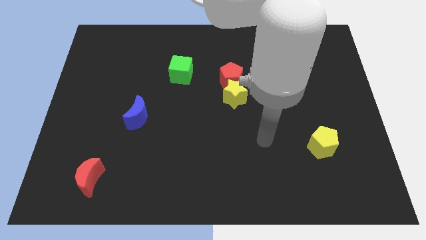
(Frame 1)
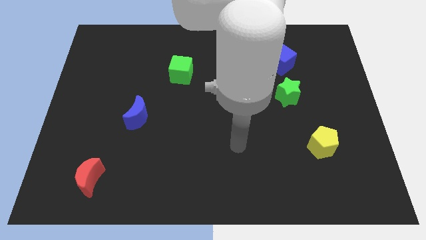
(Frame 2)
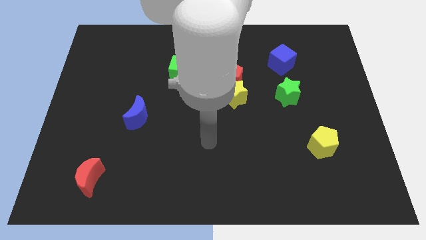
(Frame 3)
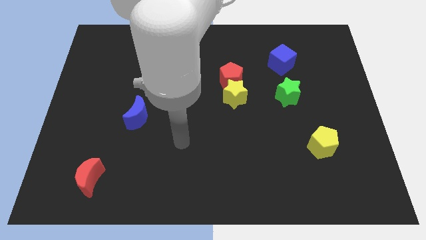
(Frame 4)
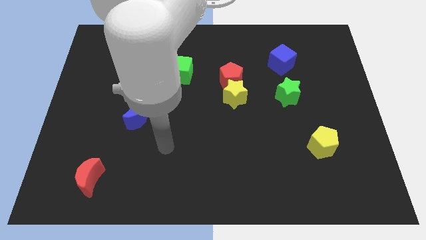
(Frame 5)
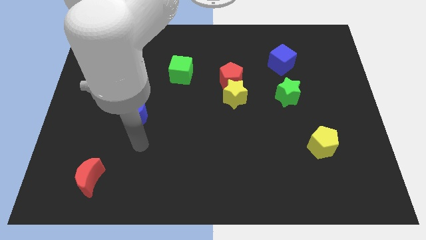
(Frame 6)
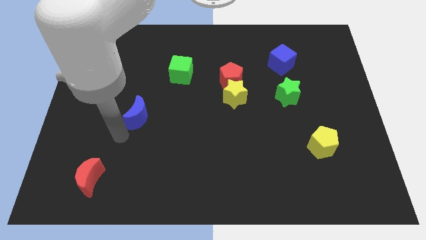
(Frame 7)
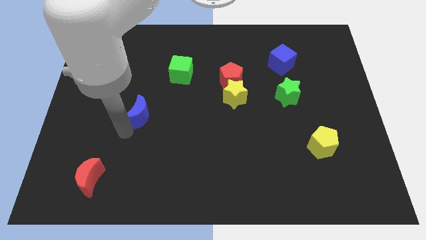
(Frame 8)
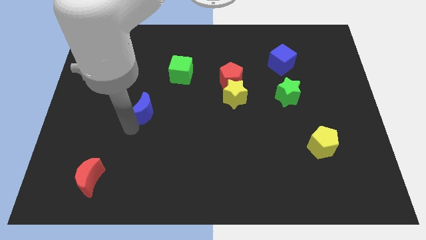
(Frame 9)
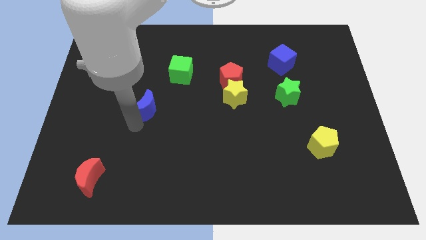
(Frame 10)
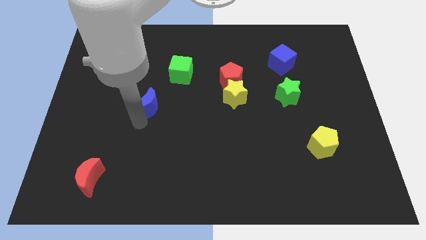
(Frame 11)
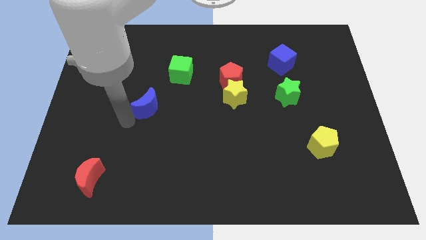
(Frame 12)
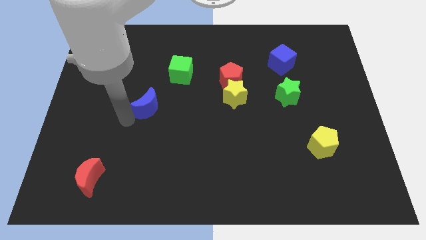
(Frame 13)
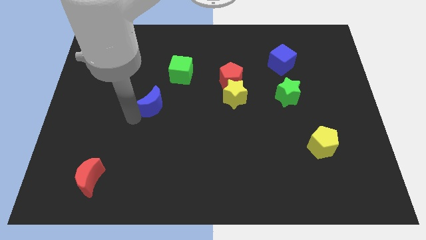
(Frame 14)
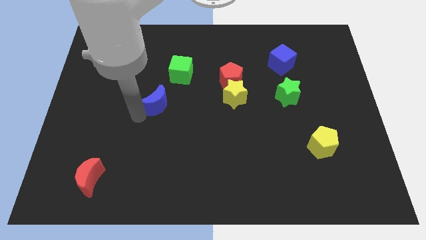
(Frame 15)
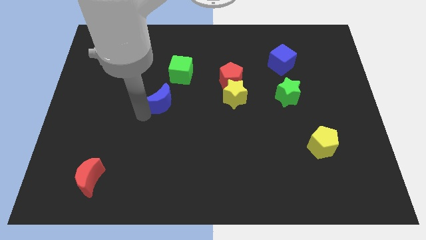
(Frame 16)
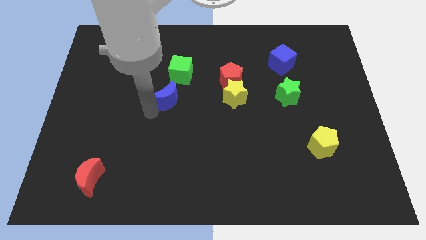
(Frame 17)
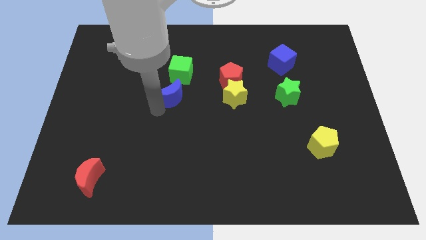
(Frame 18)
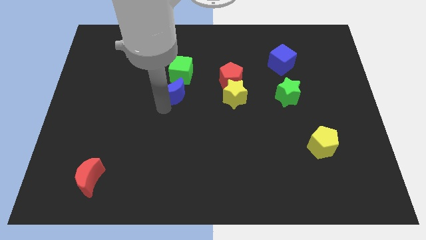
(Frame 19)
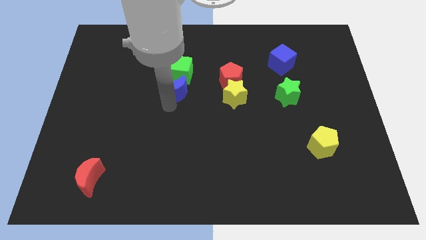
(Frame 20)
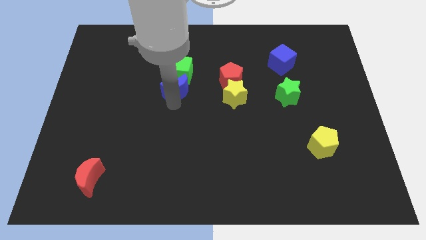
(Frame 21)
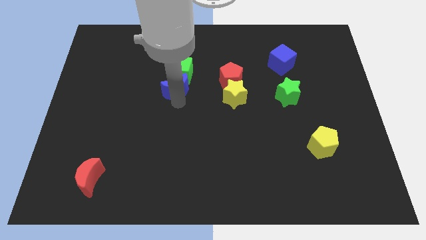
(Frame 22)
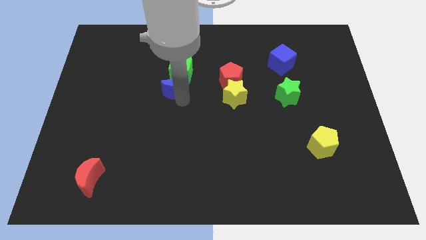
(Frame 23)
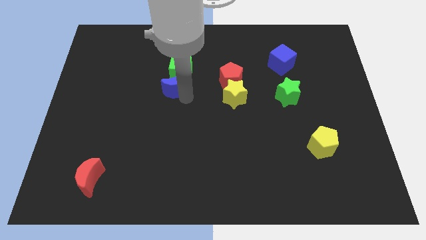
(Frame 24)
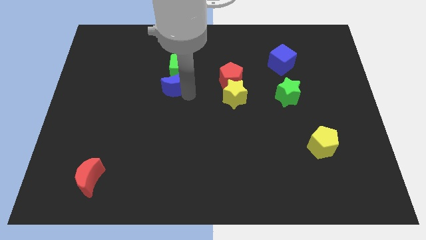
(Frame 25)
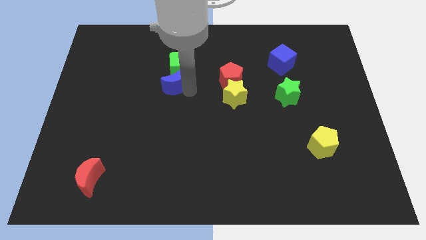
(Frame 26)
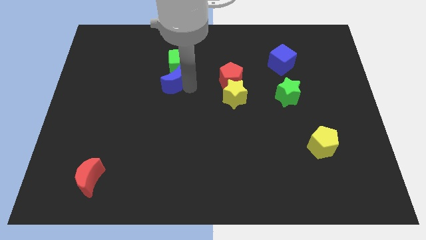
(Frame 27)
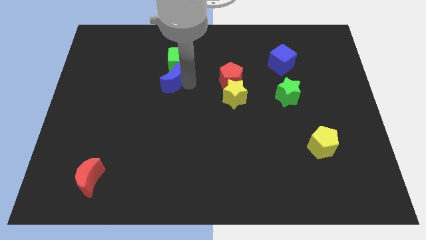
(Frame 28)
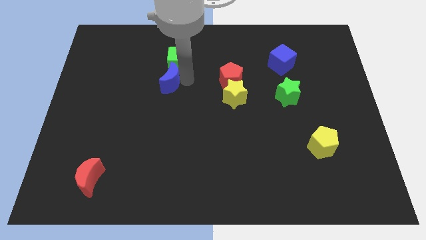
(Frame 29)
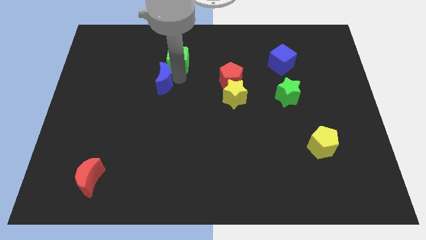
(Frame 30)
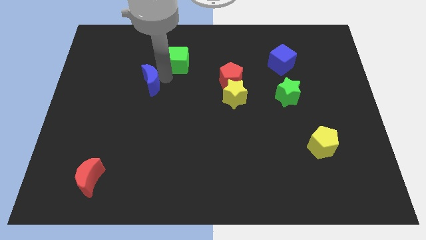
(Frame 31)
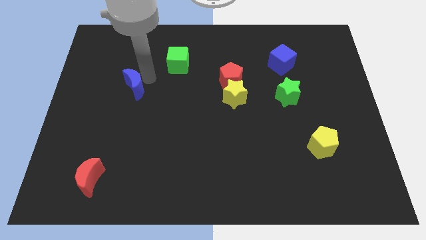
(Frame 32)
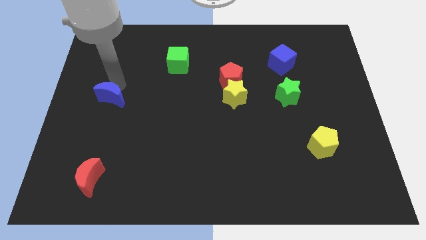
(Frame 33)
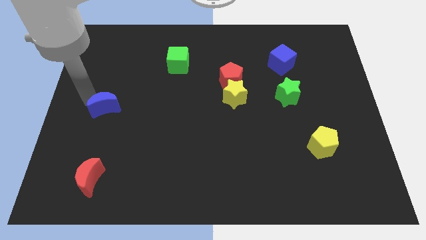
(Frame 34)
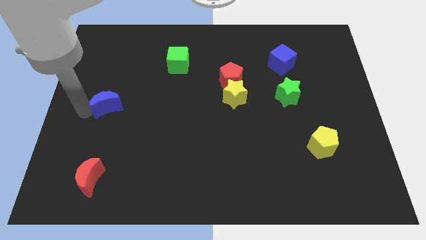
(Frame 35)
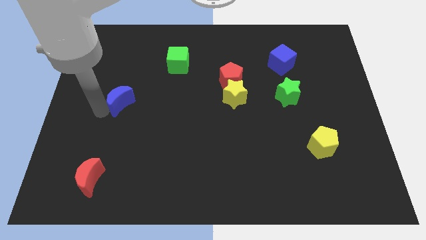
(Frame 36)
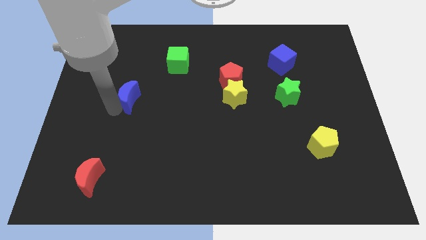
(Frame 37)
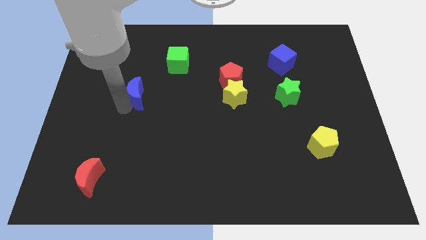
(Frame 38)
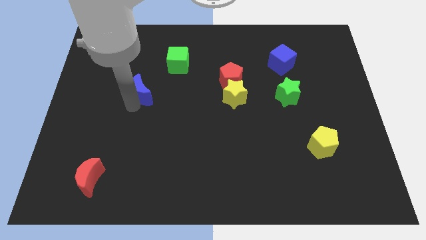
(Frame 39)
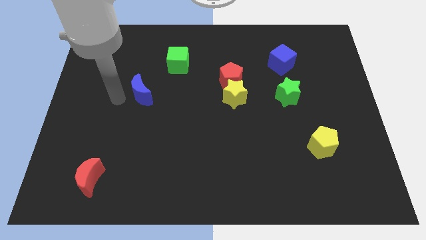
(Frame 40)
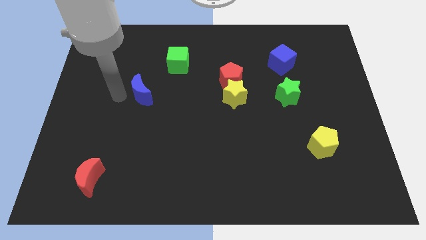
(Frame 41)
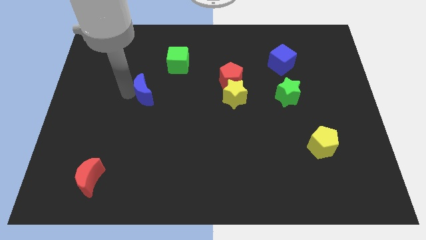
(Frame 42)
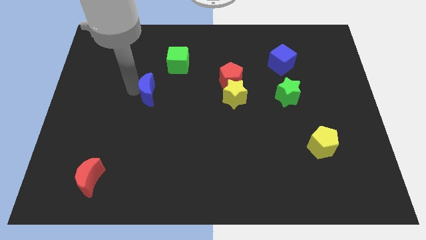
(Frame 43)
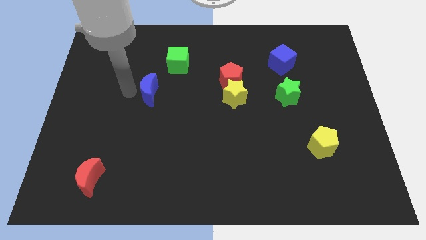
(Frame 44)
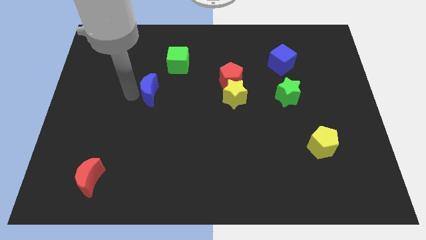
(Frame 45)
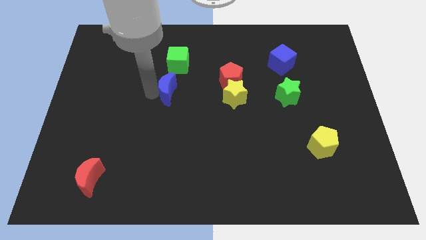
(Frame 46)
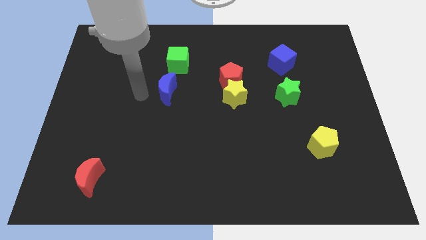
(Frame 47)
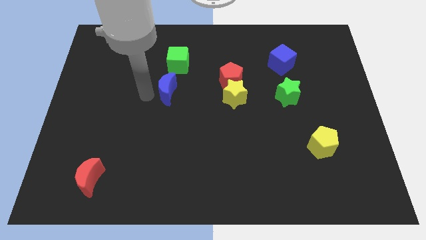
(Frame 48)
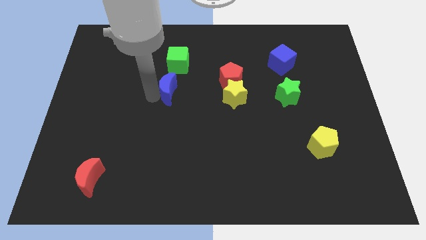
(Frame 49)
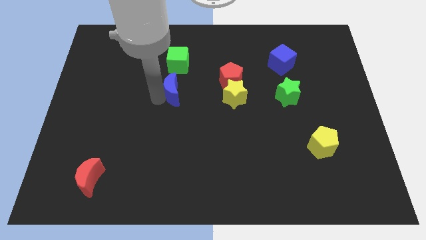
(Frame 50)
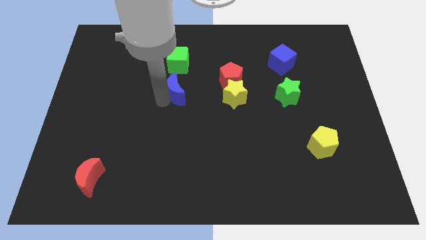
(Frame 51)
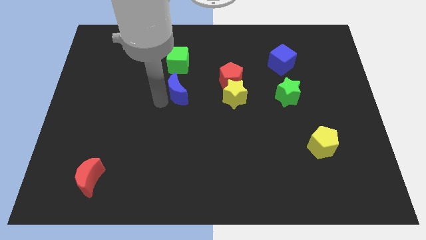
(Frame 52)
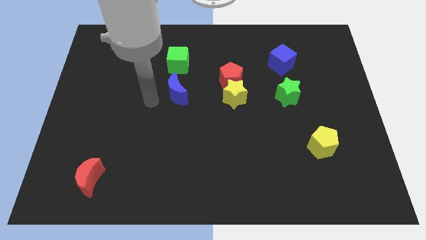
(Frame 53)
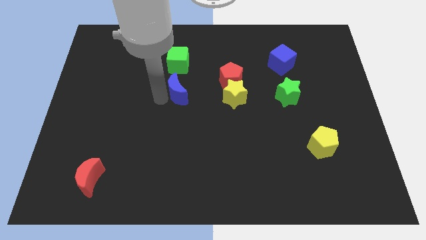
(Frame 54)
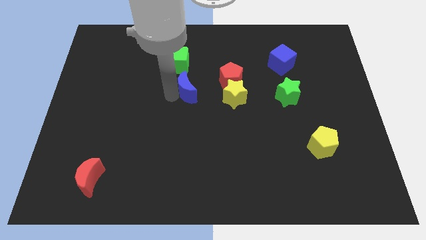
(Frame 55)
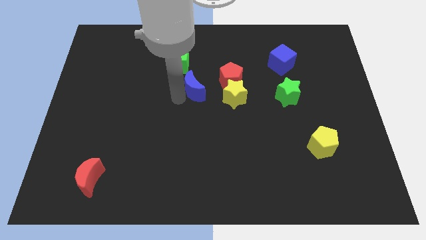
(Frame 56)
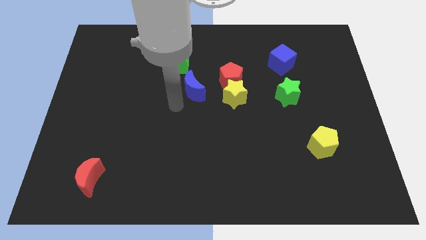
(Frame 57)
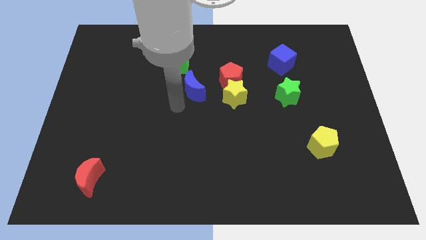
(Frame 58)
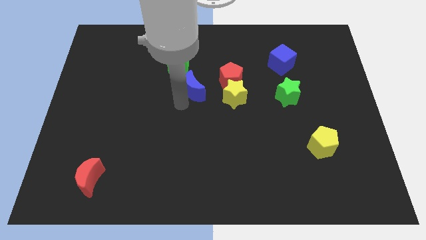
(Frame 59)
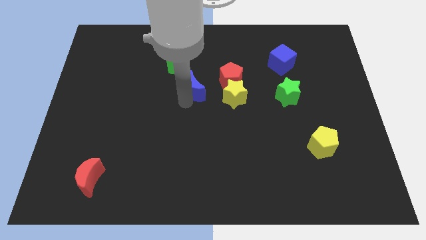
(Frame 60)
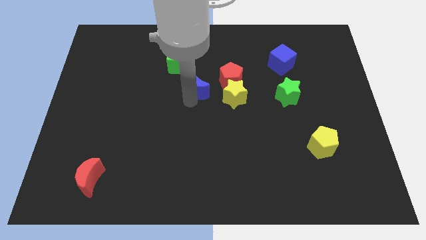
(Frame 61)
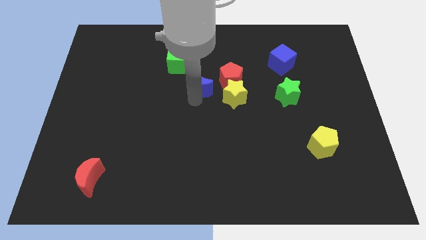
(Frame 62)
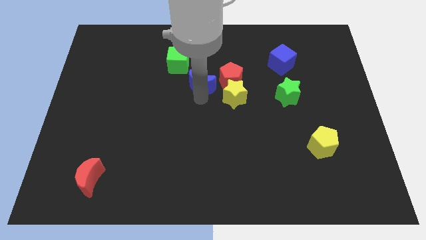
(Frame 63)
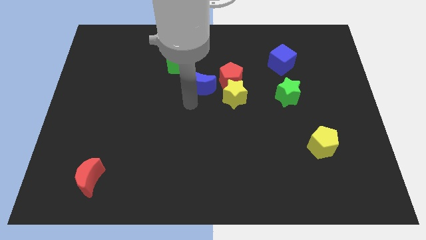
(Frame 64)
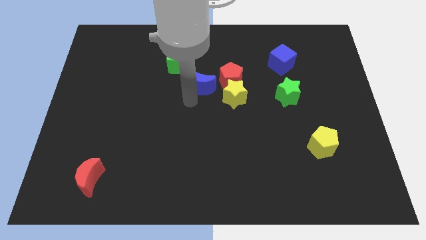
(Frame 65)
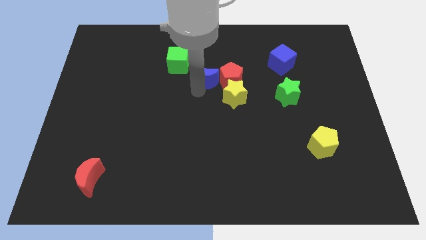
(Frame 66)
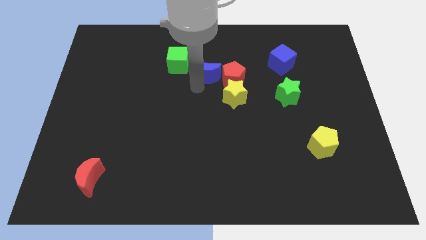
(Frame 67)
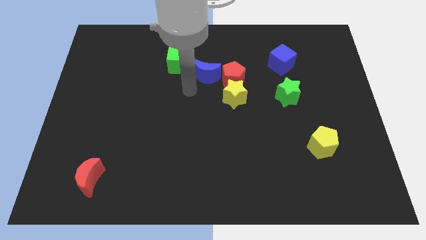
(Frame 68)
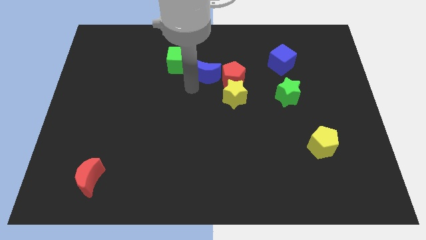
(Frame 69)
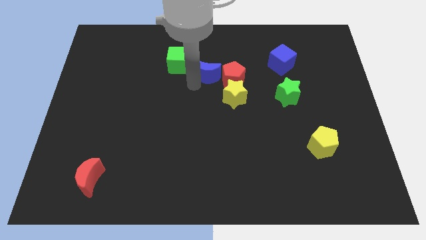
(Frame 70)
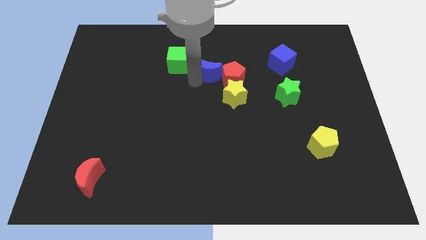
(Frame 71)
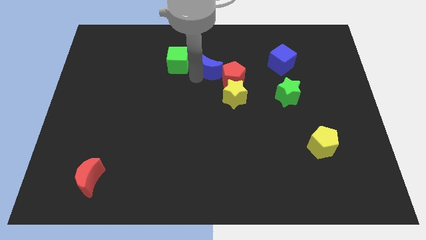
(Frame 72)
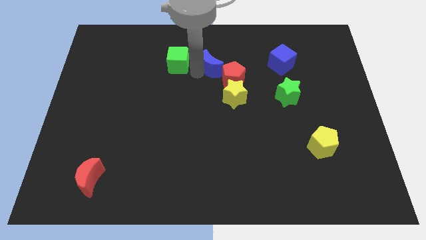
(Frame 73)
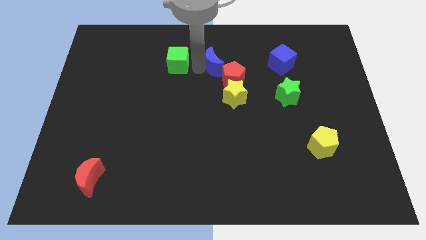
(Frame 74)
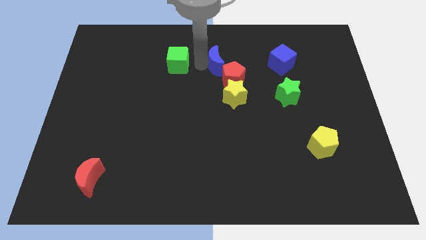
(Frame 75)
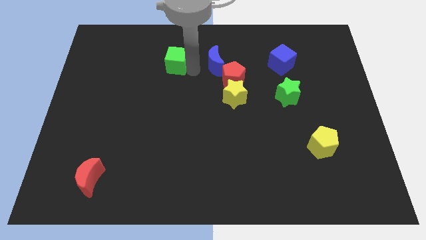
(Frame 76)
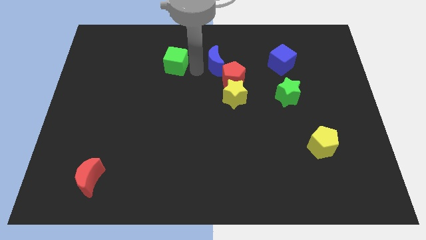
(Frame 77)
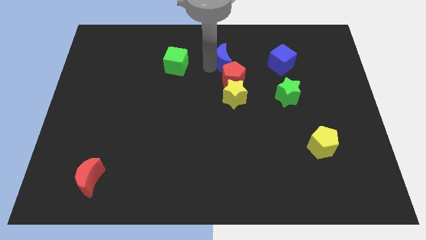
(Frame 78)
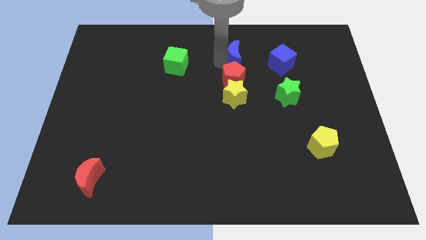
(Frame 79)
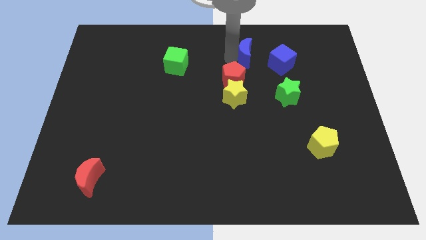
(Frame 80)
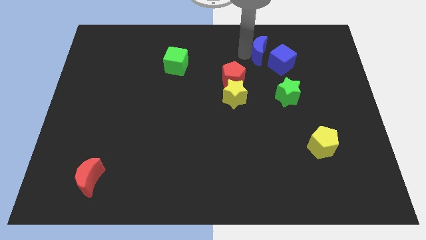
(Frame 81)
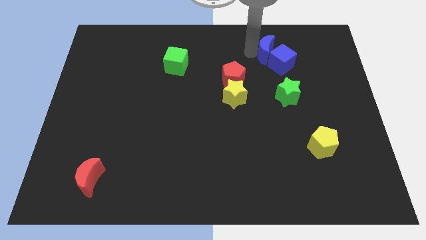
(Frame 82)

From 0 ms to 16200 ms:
push the blue moon to the blue cube
